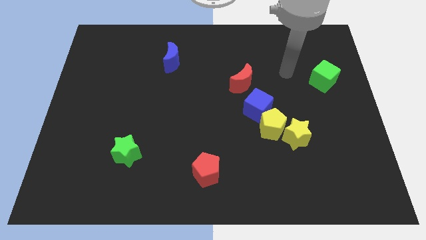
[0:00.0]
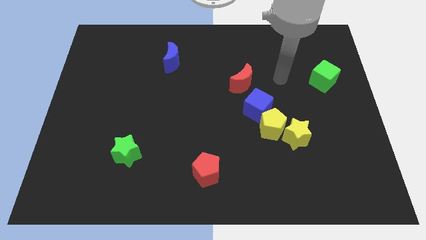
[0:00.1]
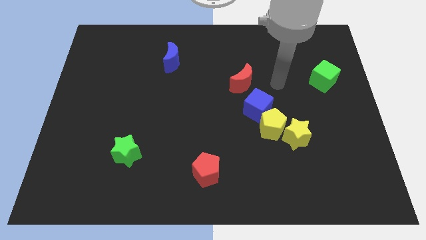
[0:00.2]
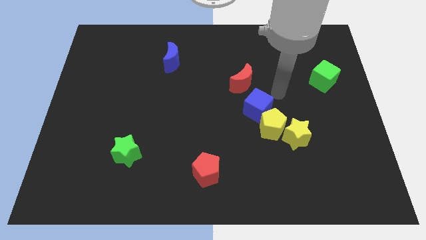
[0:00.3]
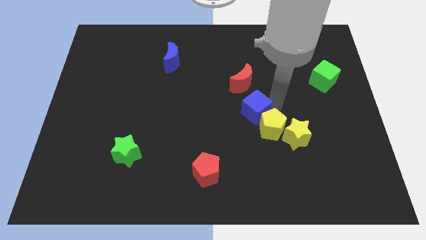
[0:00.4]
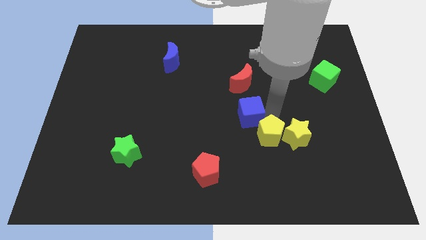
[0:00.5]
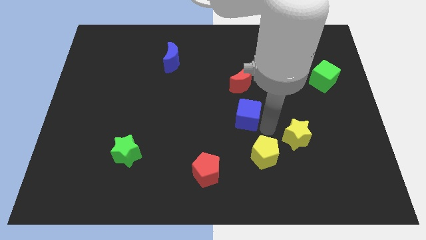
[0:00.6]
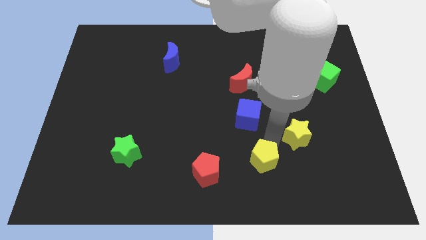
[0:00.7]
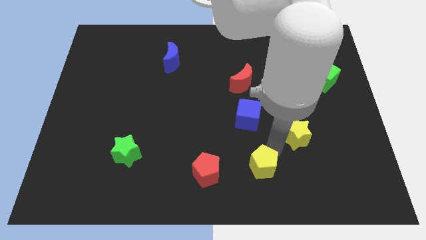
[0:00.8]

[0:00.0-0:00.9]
separate the yellow star from the yellow pentagon

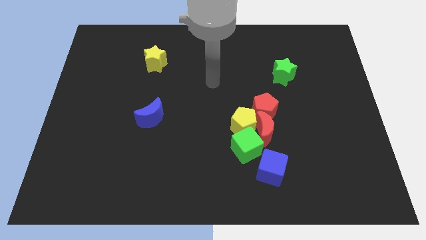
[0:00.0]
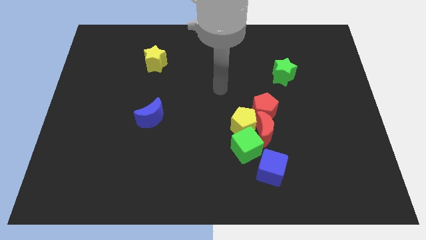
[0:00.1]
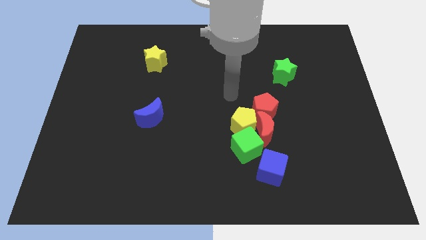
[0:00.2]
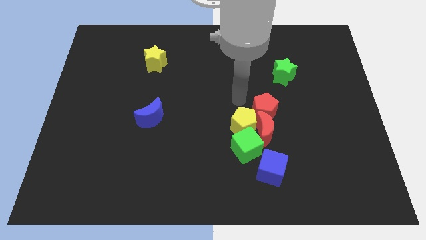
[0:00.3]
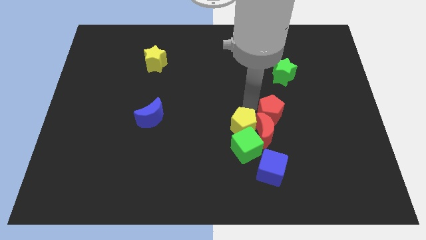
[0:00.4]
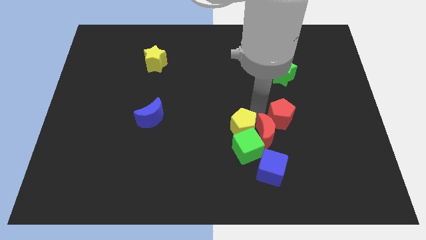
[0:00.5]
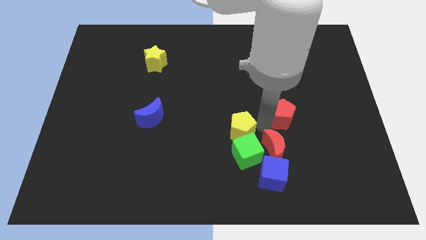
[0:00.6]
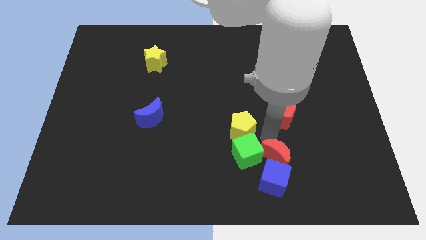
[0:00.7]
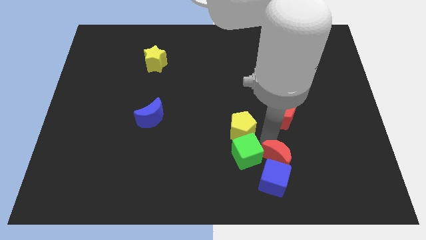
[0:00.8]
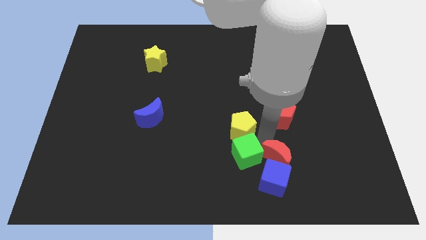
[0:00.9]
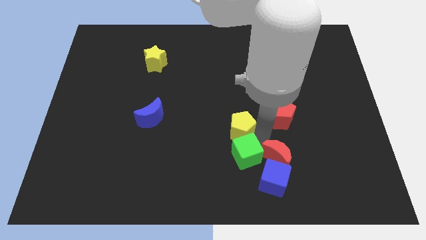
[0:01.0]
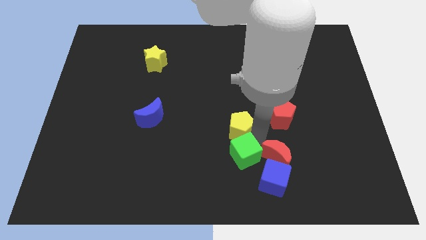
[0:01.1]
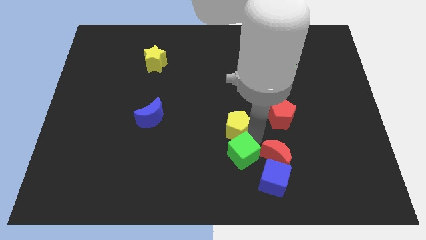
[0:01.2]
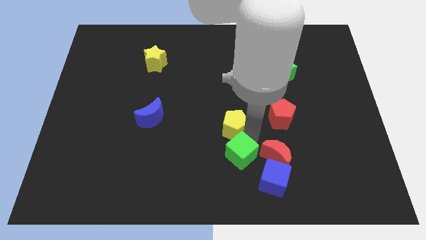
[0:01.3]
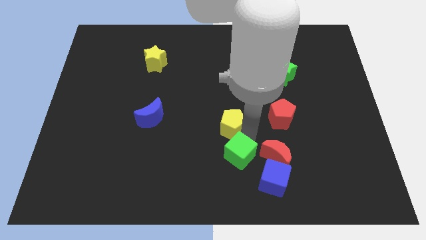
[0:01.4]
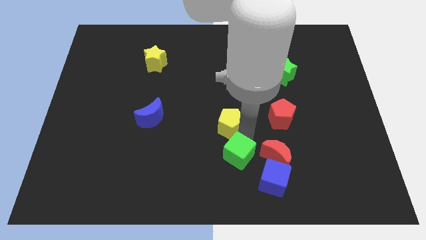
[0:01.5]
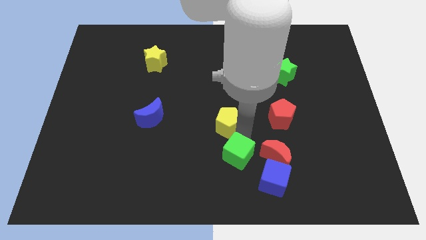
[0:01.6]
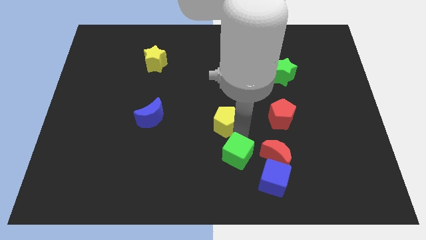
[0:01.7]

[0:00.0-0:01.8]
separate the yellow pentagon from the clump

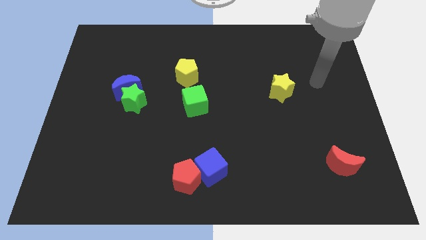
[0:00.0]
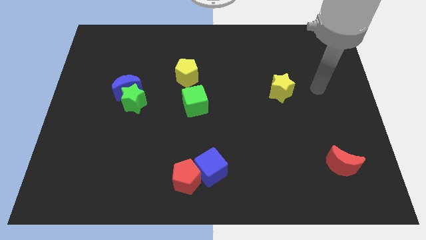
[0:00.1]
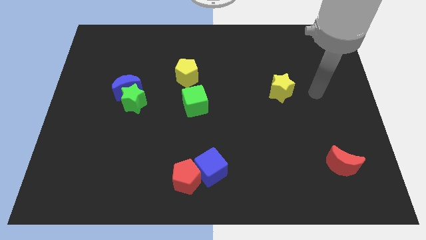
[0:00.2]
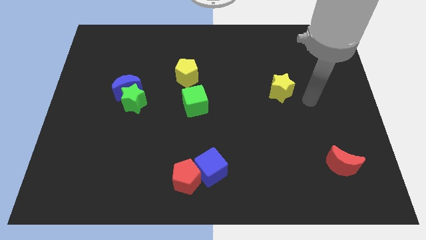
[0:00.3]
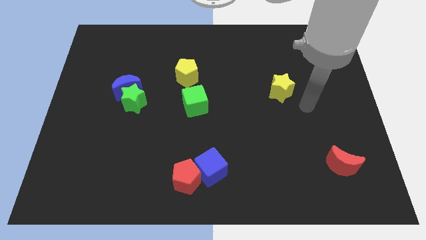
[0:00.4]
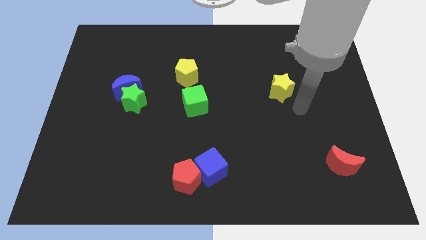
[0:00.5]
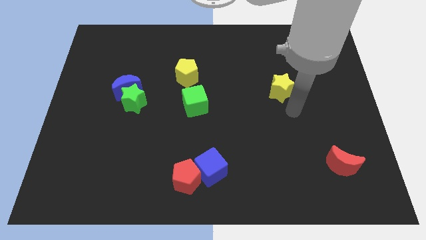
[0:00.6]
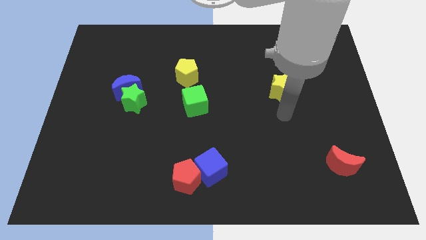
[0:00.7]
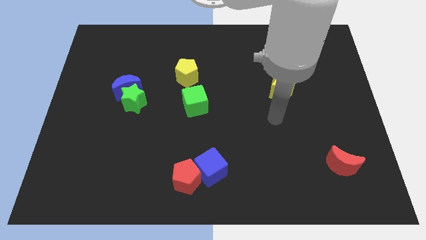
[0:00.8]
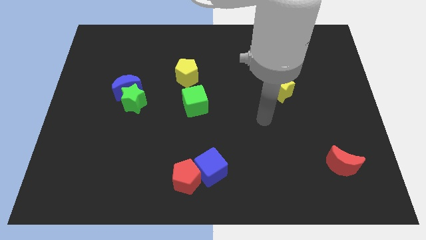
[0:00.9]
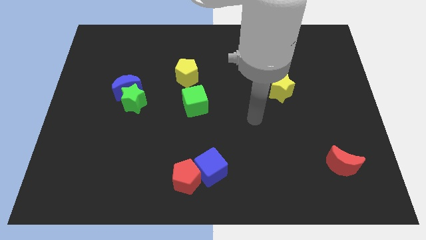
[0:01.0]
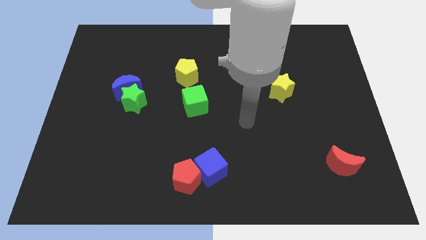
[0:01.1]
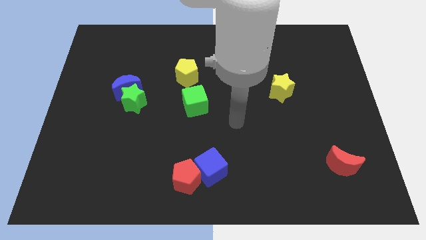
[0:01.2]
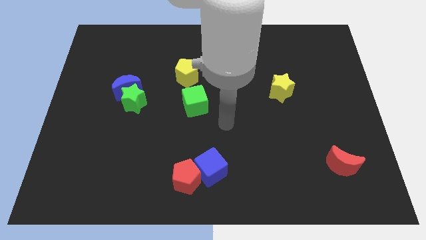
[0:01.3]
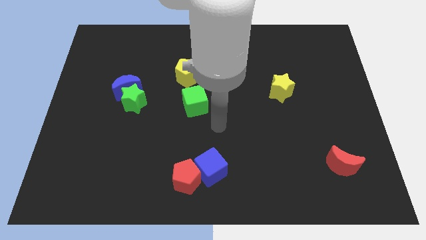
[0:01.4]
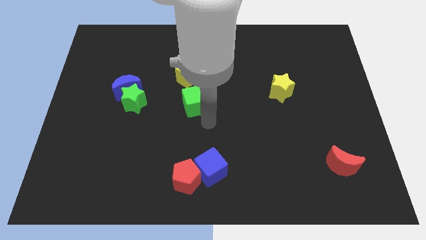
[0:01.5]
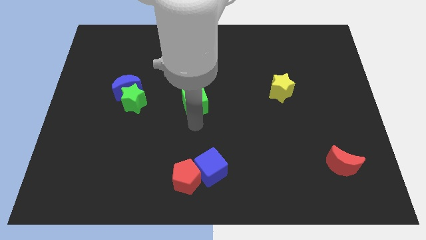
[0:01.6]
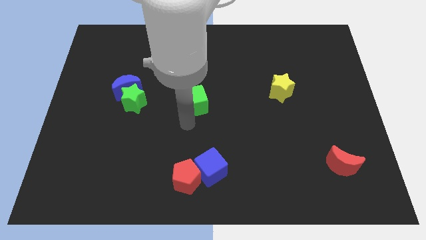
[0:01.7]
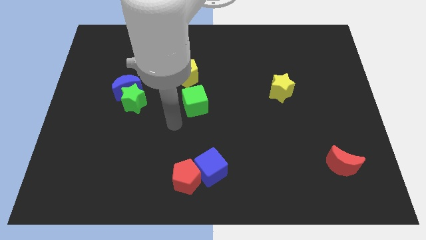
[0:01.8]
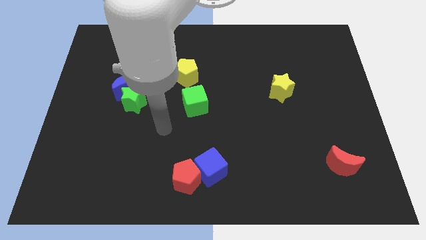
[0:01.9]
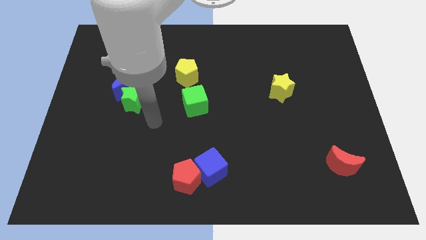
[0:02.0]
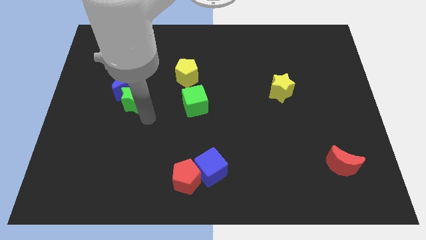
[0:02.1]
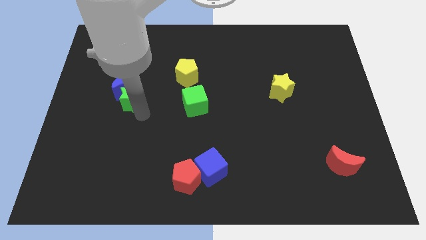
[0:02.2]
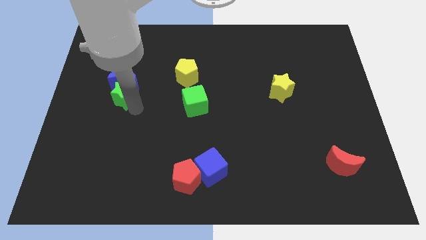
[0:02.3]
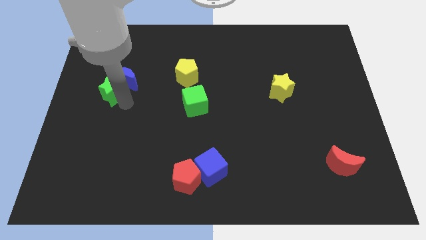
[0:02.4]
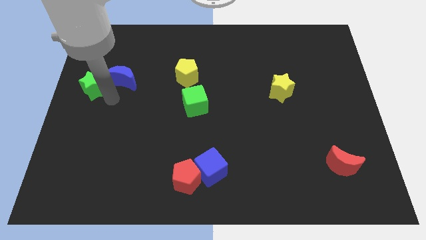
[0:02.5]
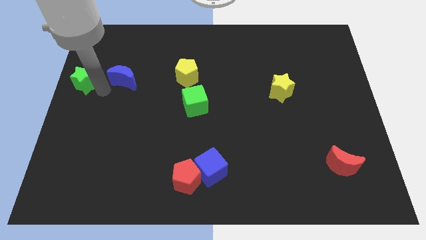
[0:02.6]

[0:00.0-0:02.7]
pull the blue moon apart from the green star

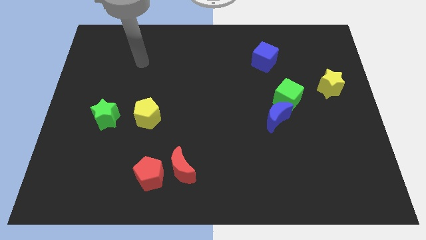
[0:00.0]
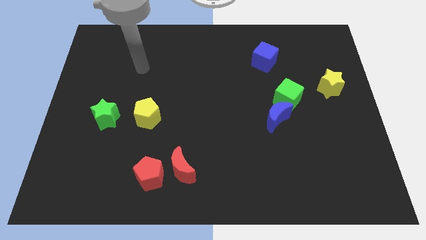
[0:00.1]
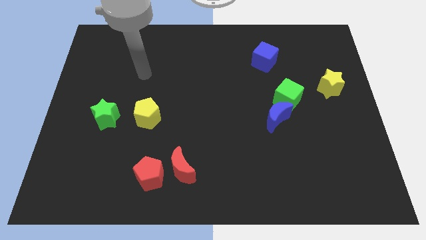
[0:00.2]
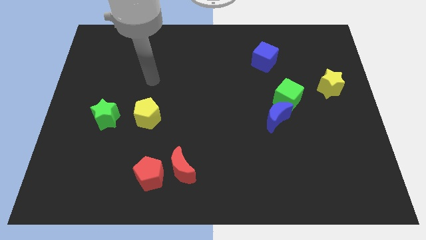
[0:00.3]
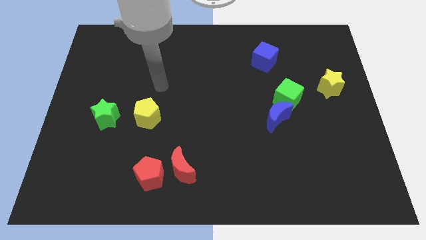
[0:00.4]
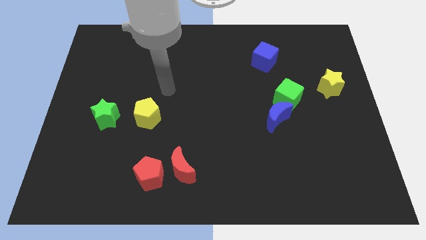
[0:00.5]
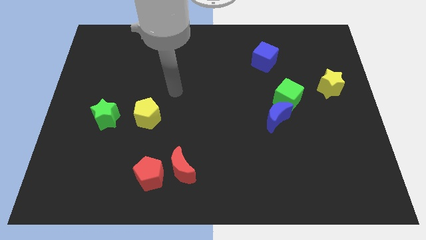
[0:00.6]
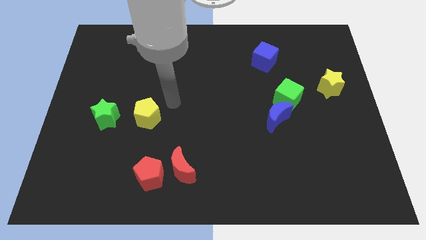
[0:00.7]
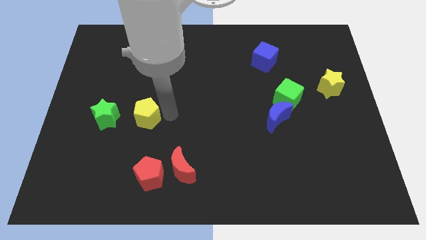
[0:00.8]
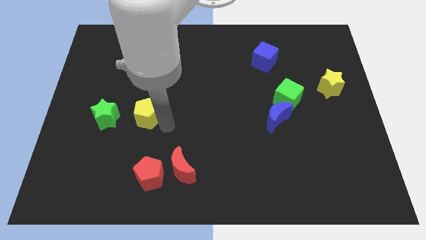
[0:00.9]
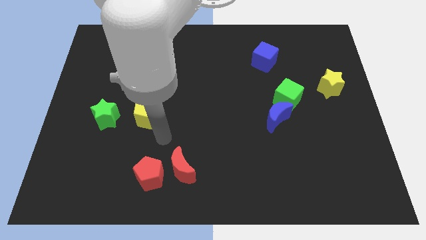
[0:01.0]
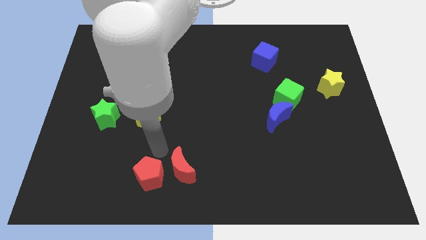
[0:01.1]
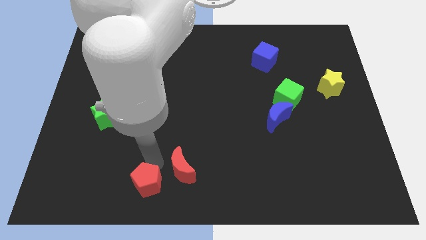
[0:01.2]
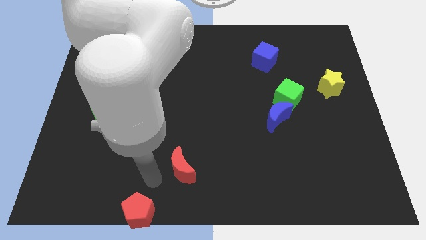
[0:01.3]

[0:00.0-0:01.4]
separate the red moon from the red pentagon

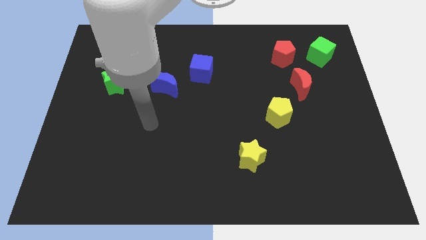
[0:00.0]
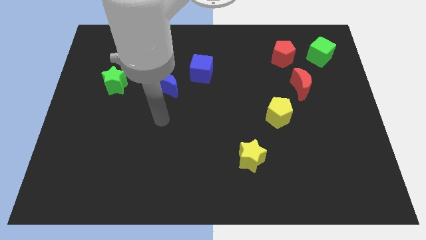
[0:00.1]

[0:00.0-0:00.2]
move the red pentagon away from the green cube

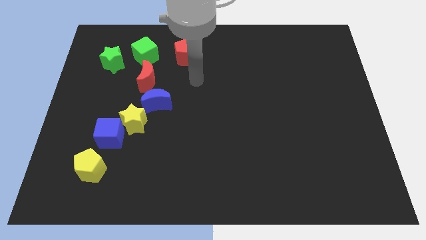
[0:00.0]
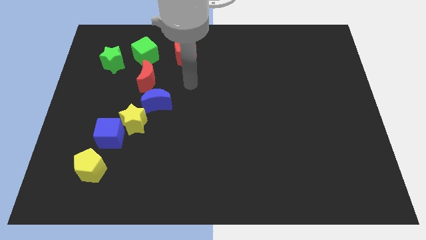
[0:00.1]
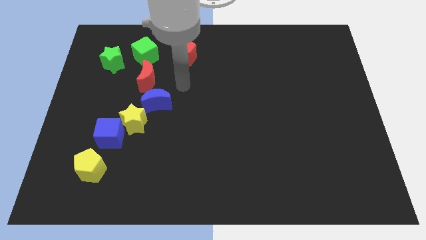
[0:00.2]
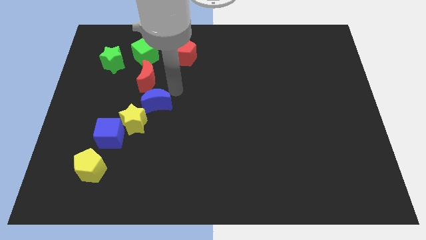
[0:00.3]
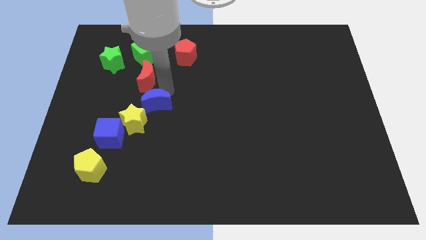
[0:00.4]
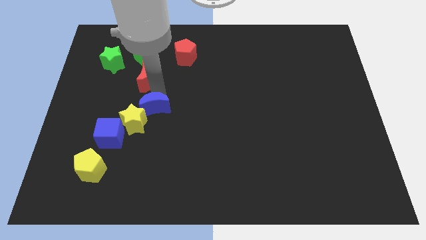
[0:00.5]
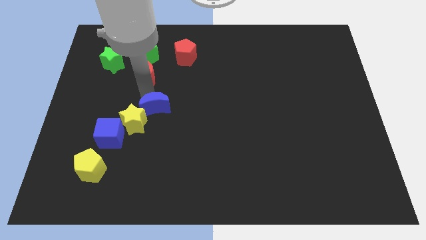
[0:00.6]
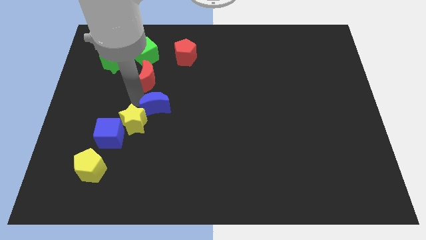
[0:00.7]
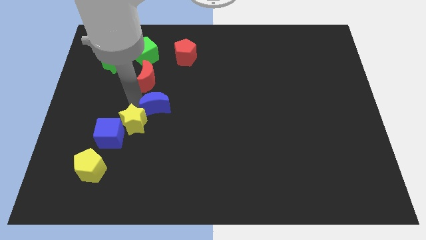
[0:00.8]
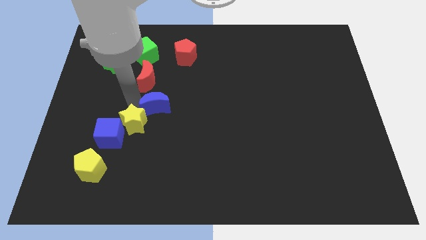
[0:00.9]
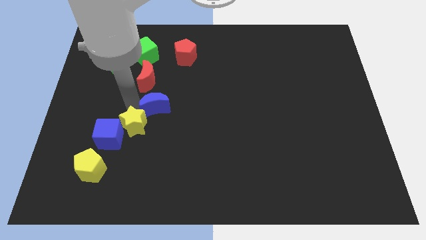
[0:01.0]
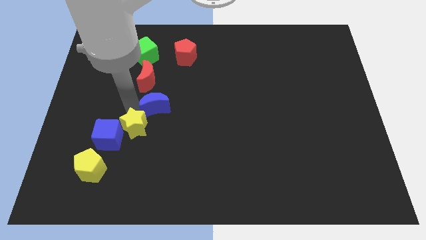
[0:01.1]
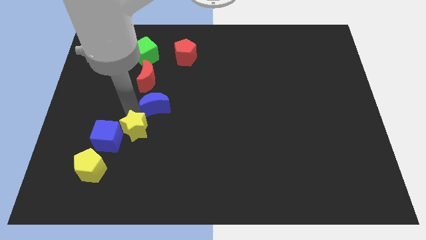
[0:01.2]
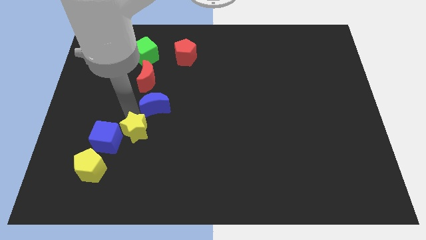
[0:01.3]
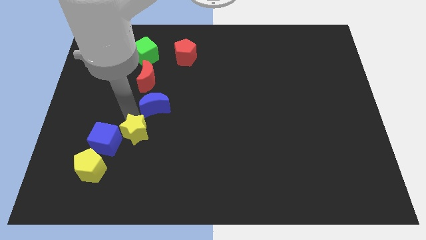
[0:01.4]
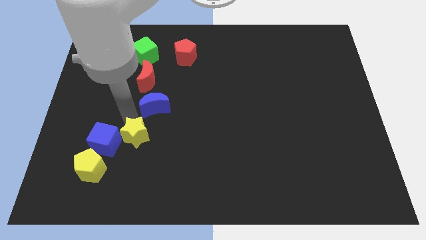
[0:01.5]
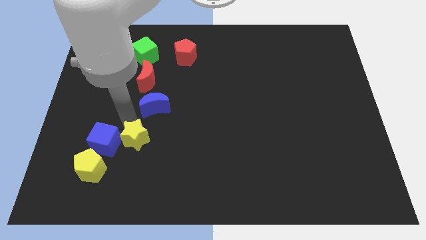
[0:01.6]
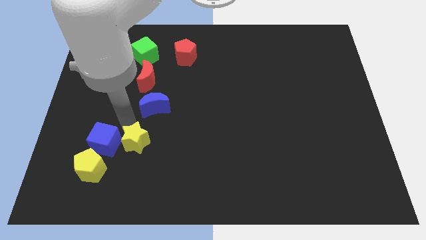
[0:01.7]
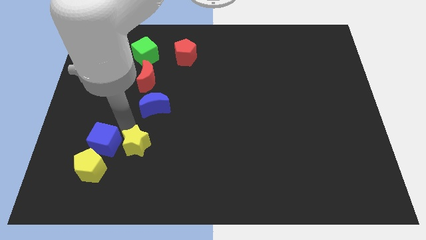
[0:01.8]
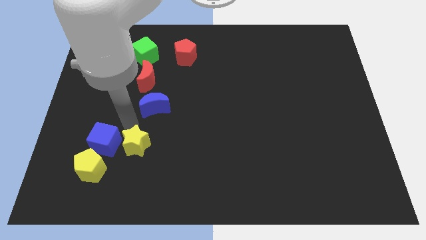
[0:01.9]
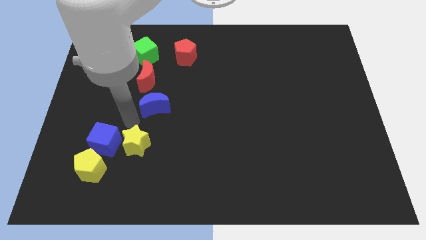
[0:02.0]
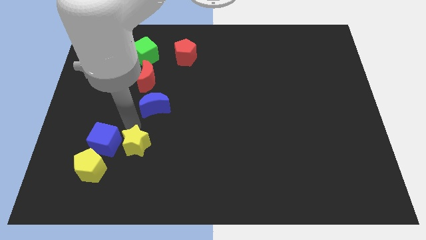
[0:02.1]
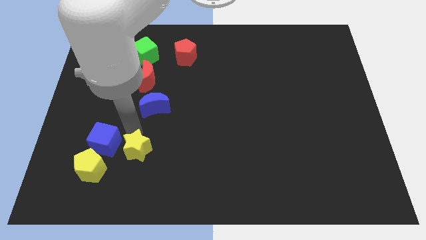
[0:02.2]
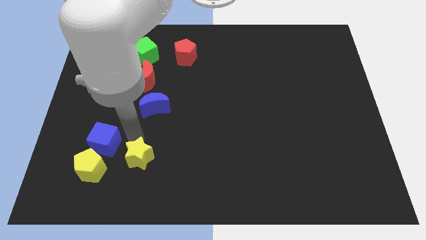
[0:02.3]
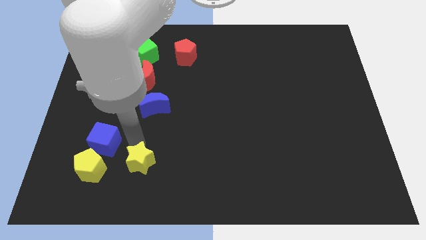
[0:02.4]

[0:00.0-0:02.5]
separate the yellow star from the blue cube and blue moon
